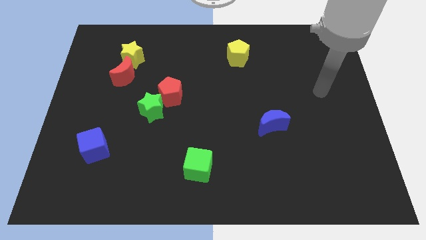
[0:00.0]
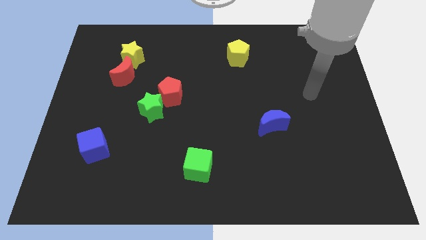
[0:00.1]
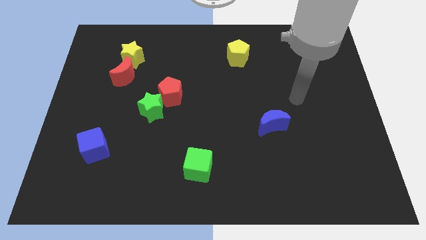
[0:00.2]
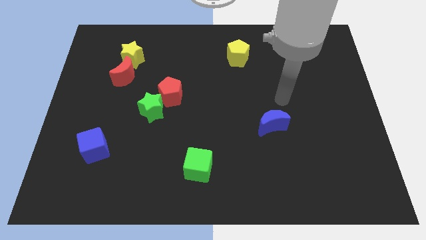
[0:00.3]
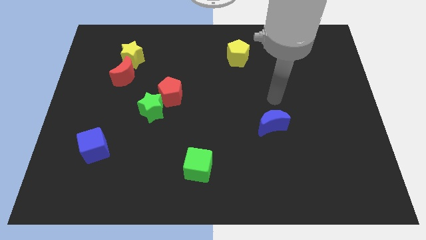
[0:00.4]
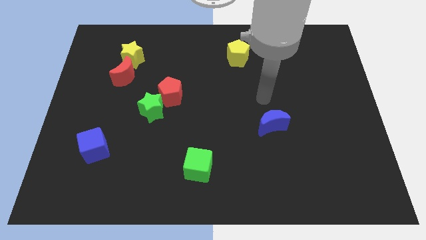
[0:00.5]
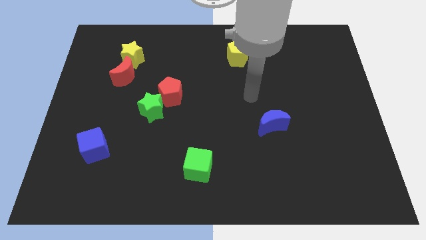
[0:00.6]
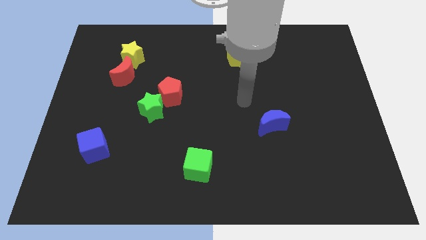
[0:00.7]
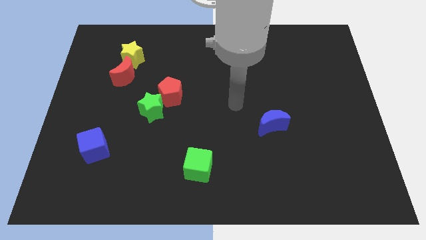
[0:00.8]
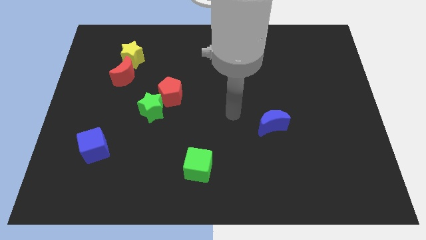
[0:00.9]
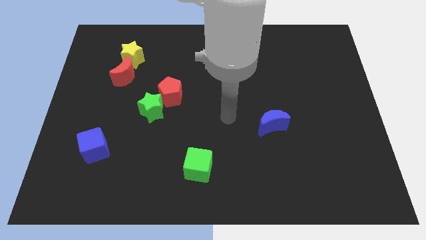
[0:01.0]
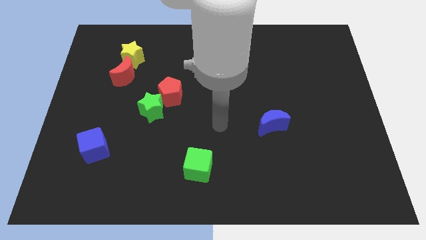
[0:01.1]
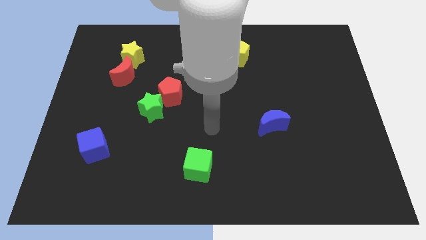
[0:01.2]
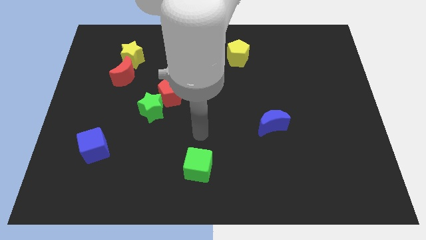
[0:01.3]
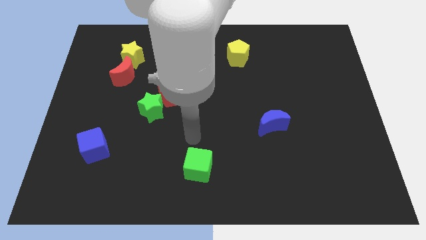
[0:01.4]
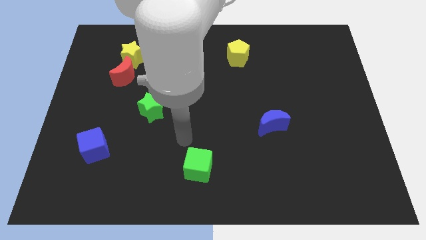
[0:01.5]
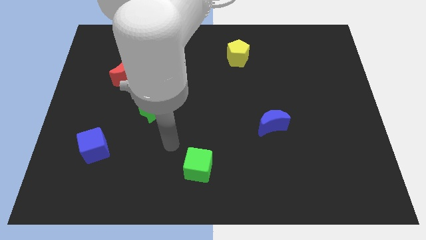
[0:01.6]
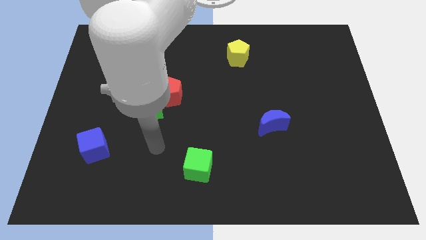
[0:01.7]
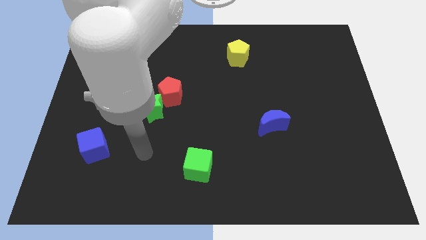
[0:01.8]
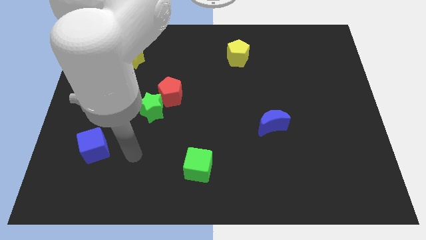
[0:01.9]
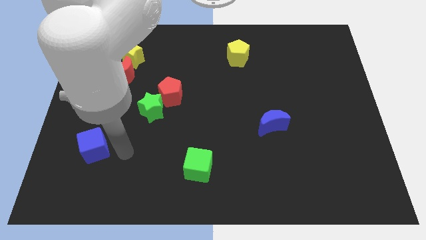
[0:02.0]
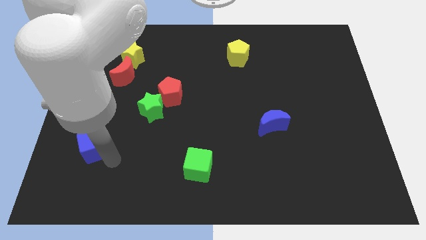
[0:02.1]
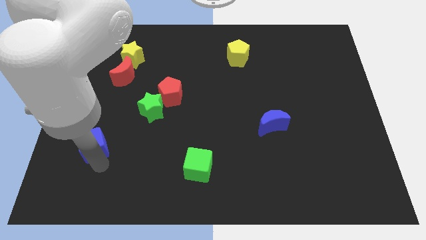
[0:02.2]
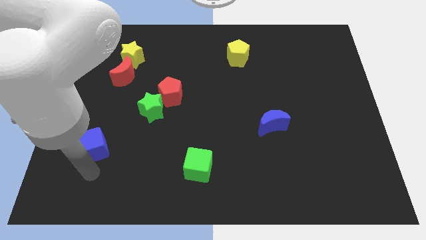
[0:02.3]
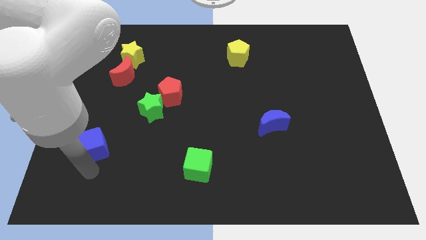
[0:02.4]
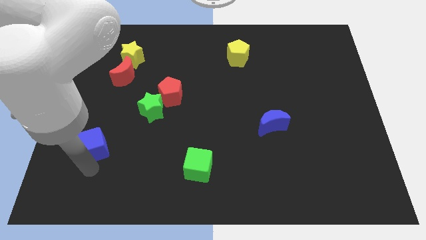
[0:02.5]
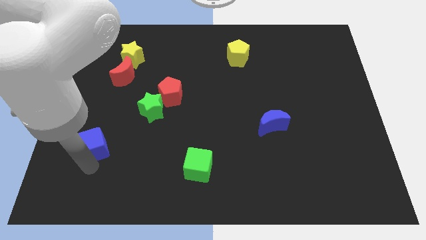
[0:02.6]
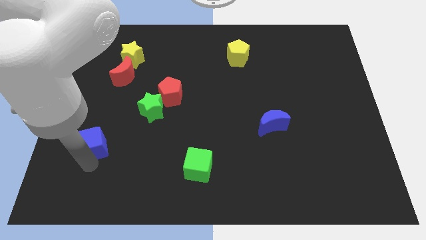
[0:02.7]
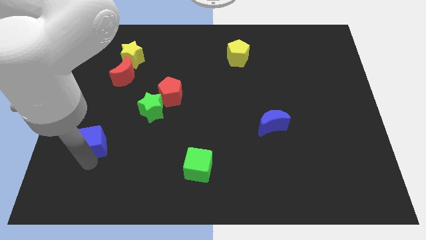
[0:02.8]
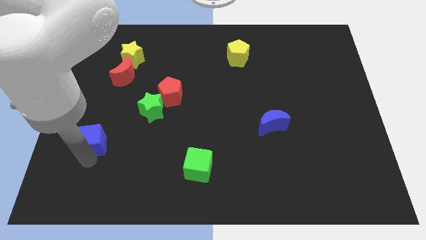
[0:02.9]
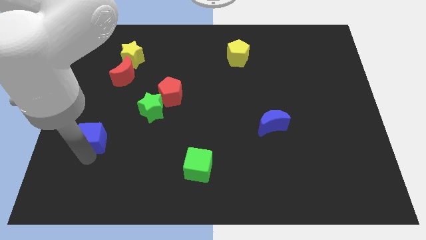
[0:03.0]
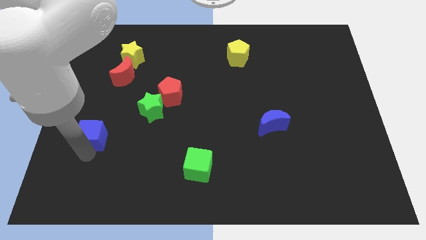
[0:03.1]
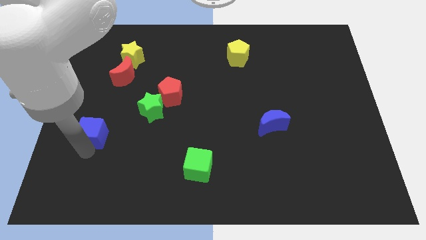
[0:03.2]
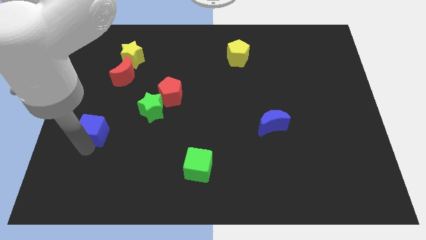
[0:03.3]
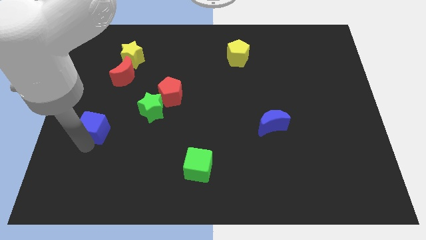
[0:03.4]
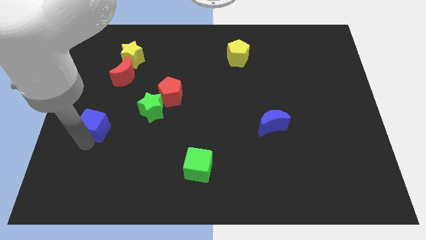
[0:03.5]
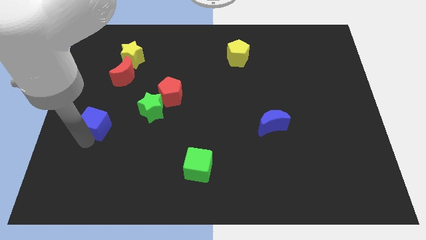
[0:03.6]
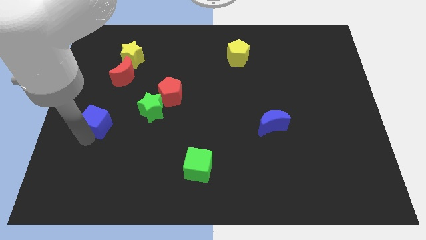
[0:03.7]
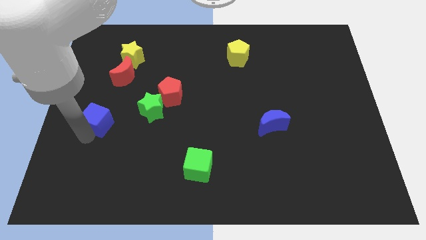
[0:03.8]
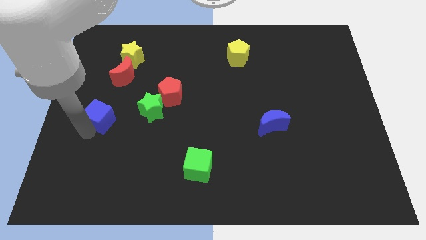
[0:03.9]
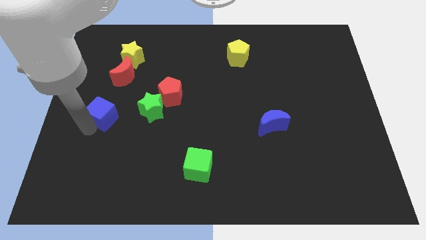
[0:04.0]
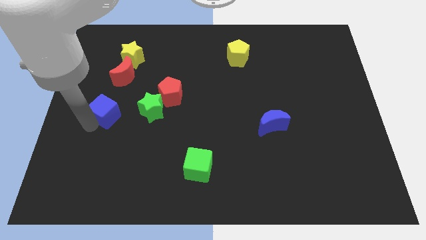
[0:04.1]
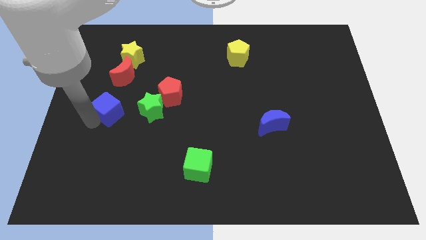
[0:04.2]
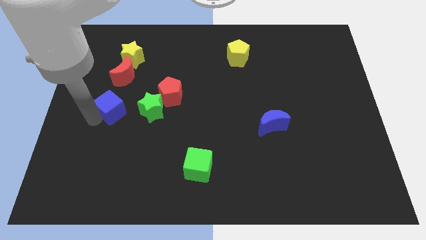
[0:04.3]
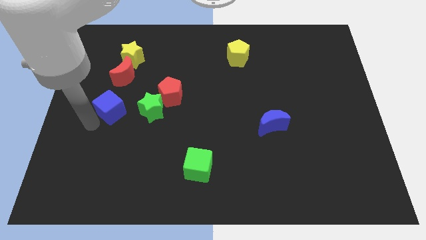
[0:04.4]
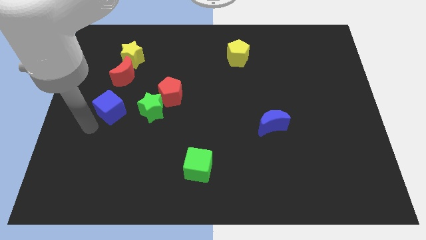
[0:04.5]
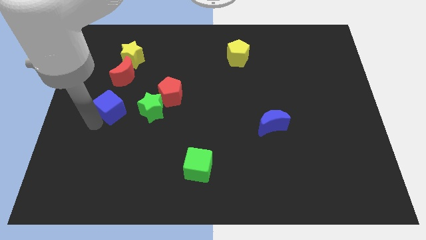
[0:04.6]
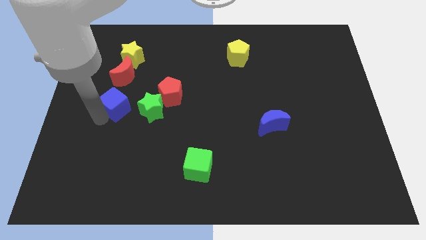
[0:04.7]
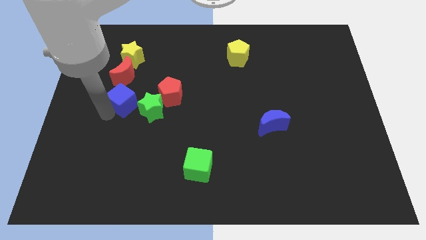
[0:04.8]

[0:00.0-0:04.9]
put the blue cube to the top left side of the green star

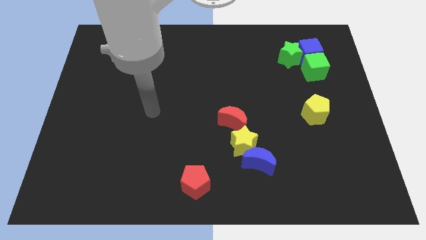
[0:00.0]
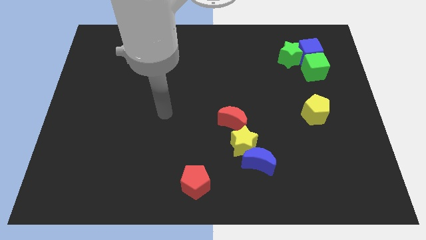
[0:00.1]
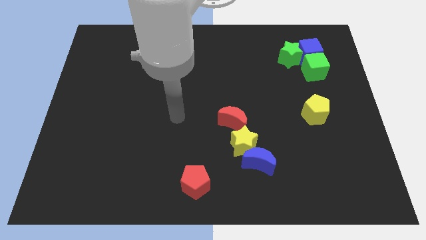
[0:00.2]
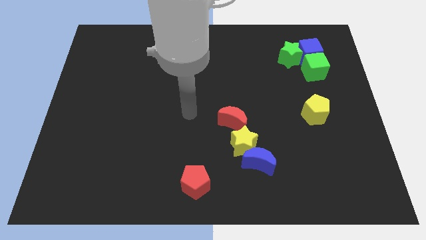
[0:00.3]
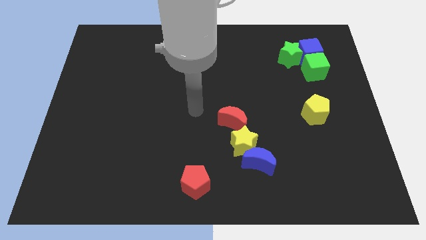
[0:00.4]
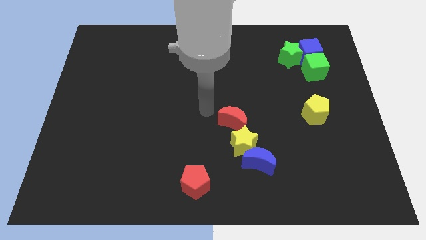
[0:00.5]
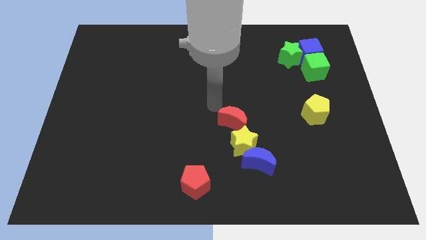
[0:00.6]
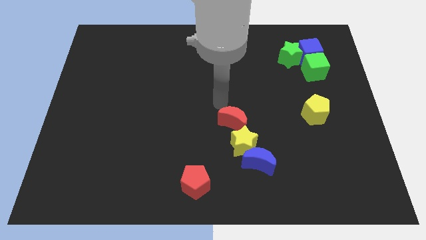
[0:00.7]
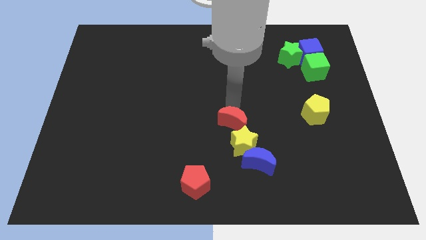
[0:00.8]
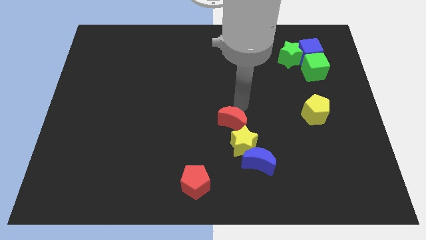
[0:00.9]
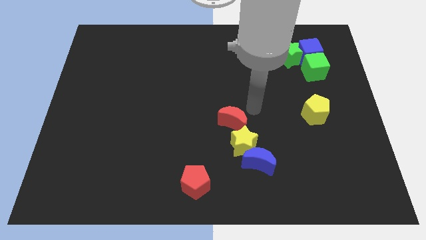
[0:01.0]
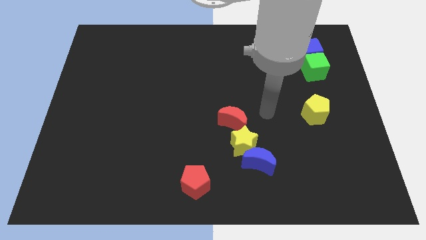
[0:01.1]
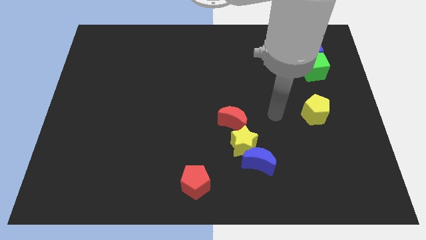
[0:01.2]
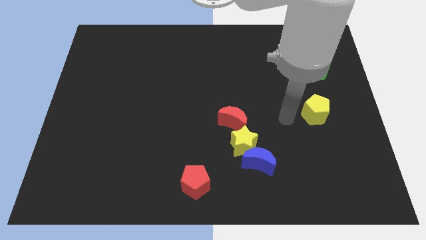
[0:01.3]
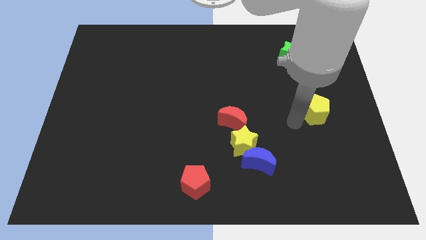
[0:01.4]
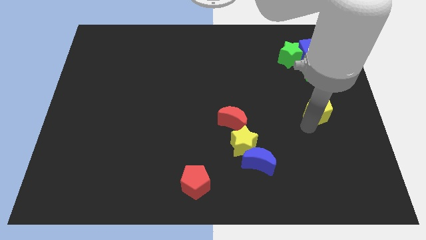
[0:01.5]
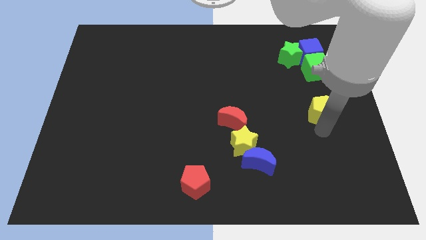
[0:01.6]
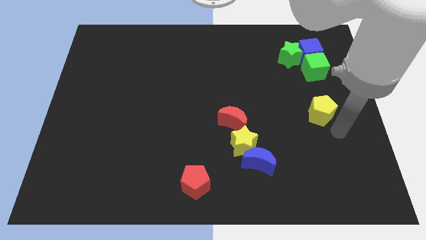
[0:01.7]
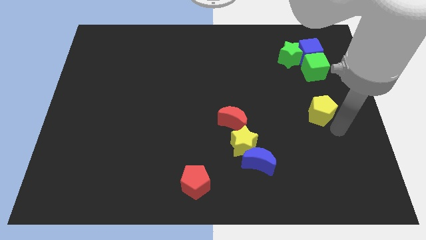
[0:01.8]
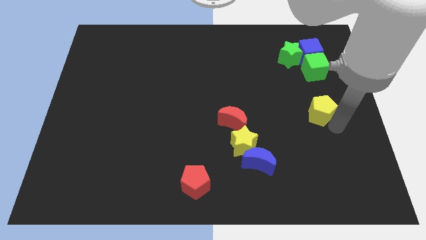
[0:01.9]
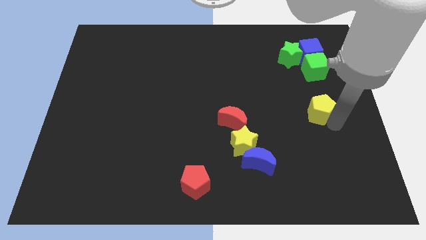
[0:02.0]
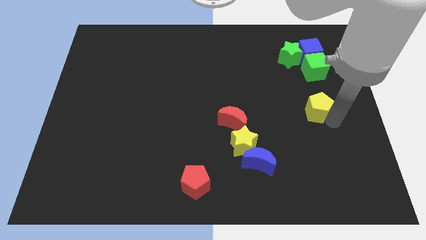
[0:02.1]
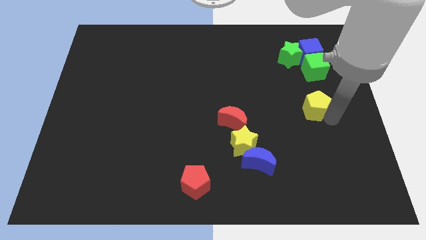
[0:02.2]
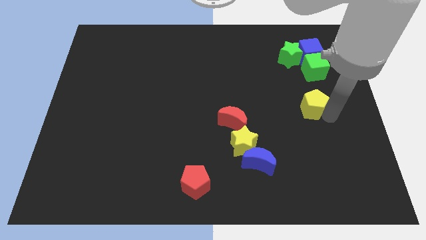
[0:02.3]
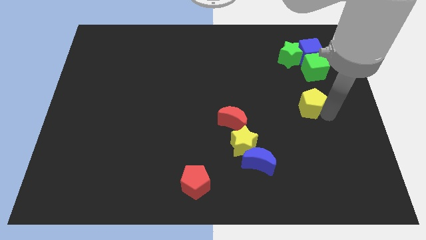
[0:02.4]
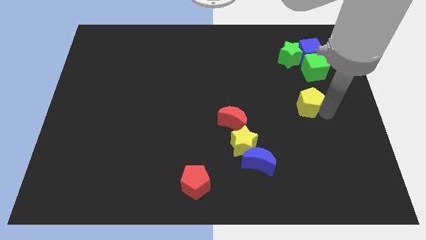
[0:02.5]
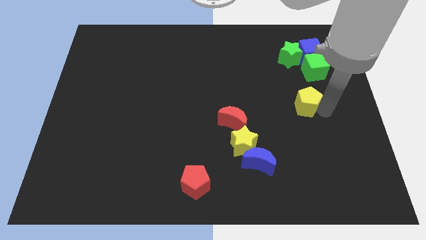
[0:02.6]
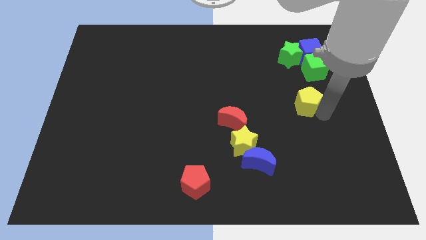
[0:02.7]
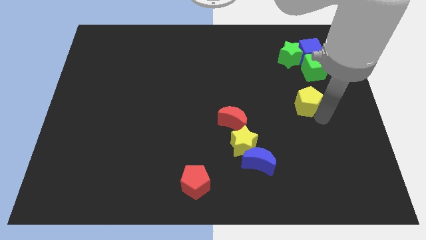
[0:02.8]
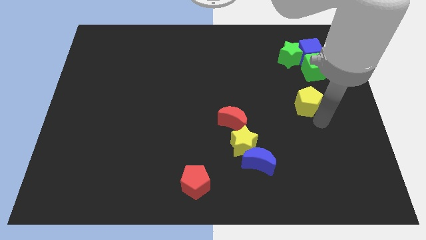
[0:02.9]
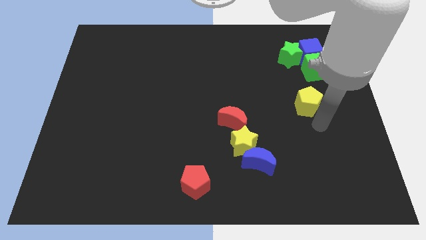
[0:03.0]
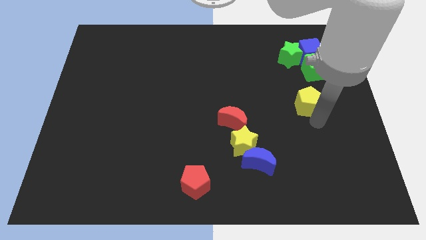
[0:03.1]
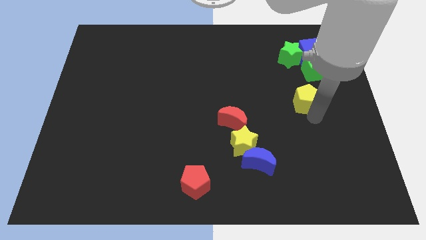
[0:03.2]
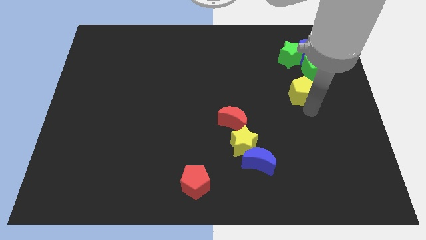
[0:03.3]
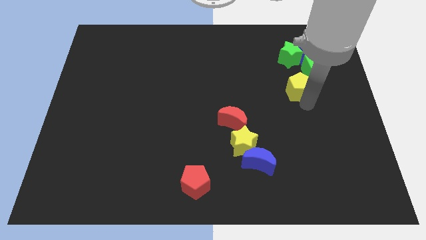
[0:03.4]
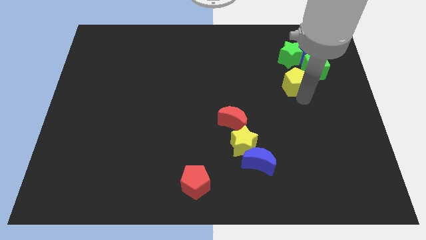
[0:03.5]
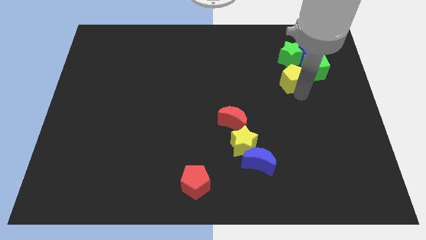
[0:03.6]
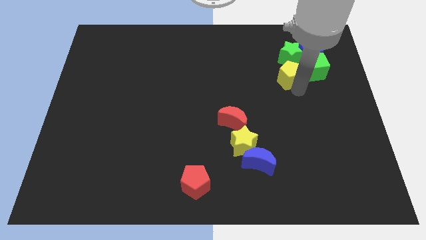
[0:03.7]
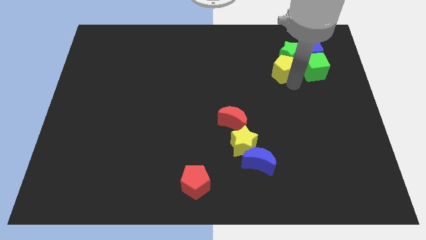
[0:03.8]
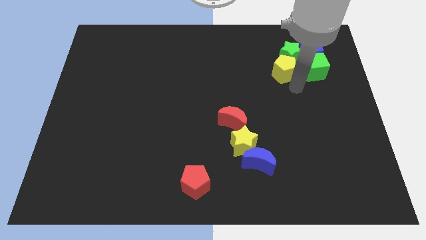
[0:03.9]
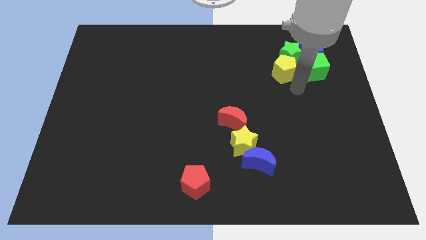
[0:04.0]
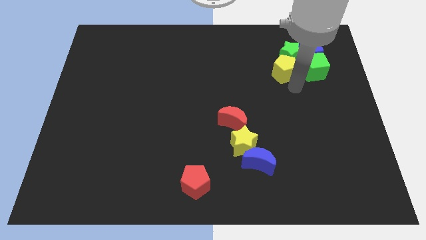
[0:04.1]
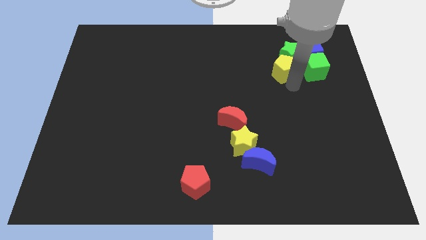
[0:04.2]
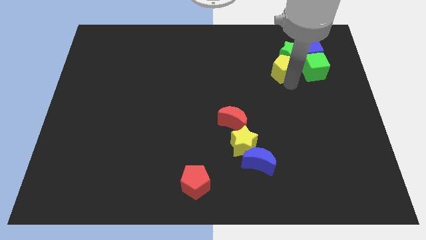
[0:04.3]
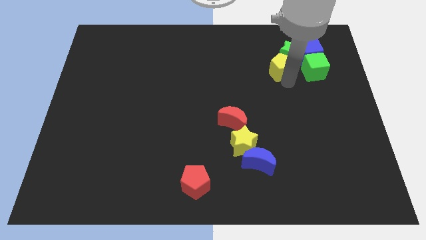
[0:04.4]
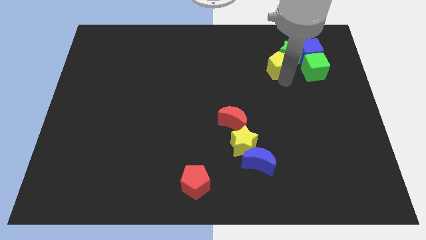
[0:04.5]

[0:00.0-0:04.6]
move the yellow pentagon just left of the blue cube
